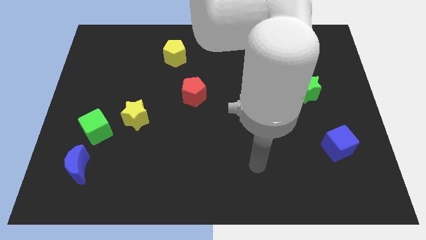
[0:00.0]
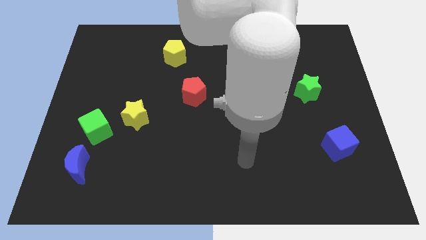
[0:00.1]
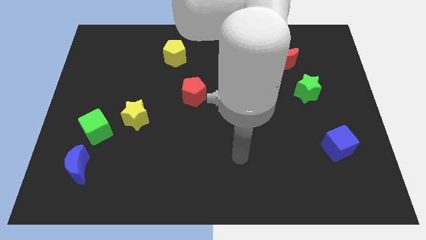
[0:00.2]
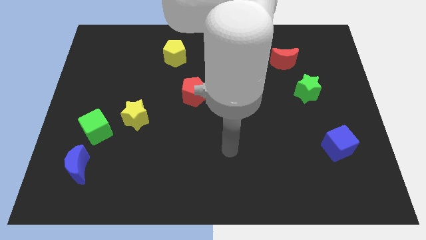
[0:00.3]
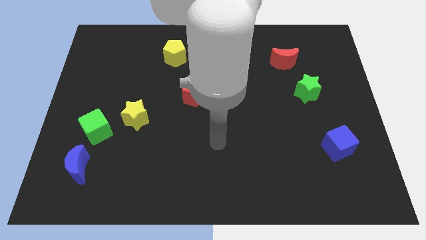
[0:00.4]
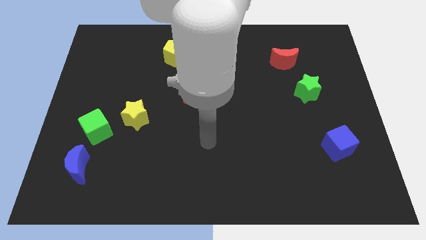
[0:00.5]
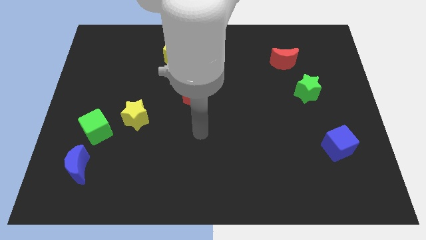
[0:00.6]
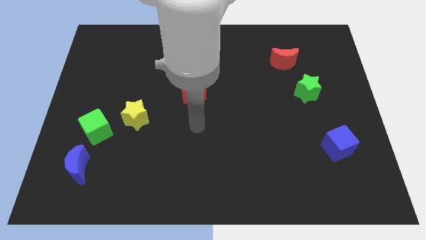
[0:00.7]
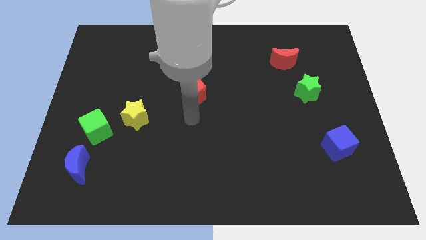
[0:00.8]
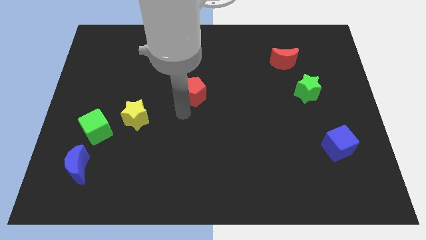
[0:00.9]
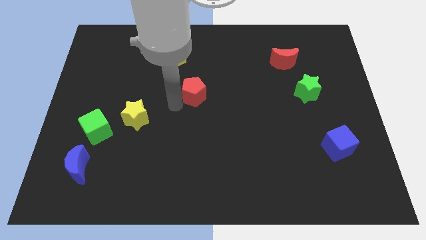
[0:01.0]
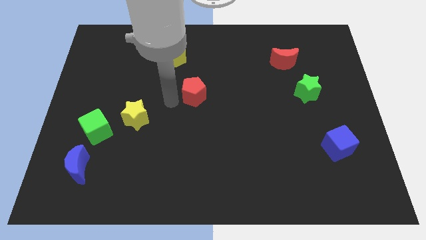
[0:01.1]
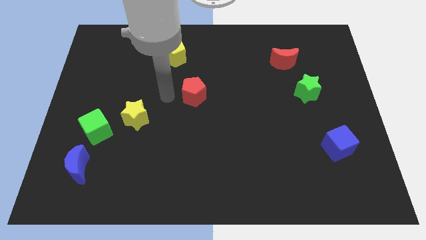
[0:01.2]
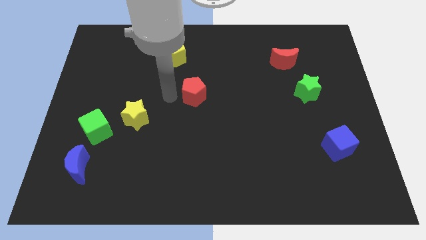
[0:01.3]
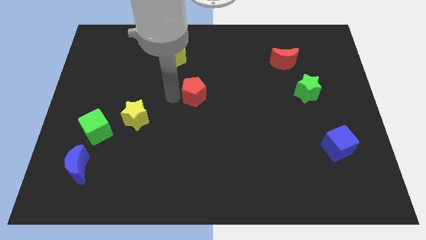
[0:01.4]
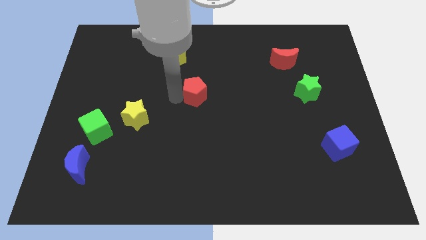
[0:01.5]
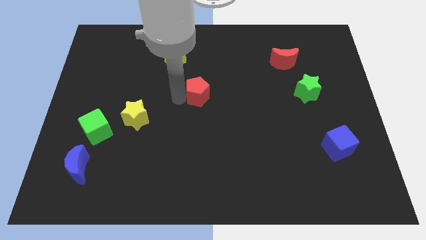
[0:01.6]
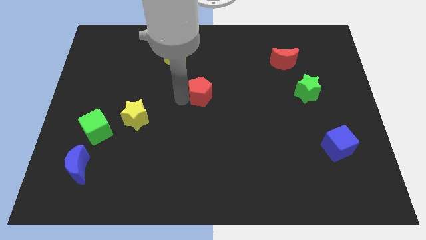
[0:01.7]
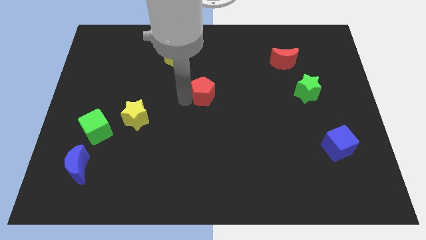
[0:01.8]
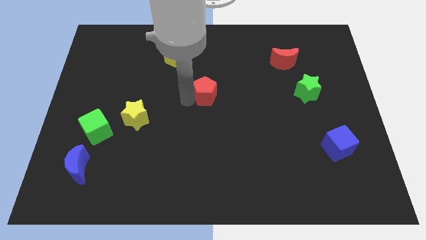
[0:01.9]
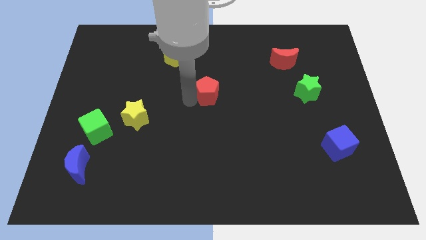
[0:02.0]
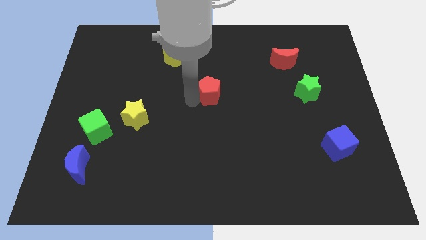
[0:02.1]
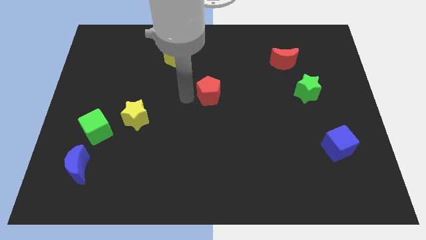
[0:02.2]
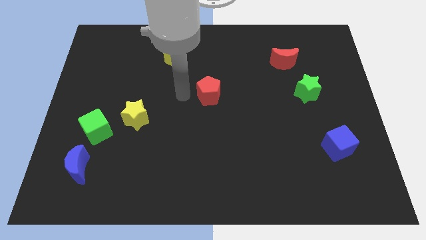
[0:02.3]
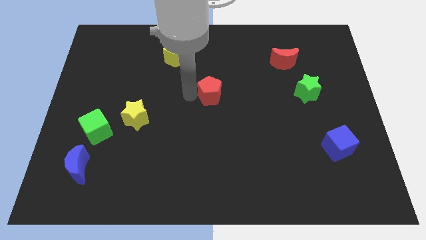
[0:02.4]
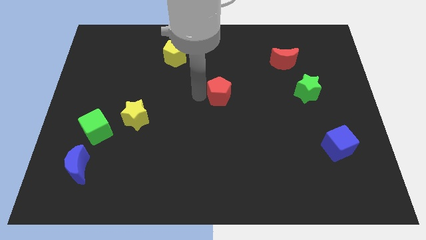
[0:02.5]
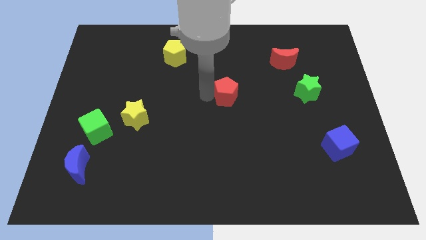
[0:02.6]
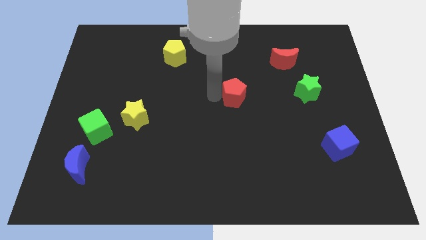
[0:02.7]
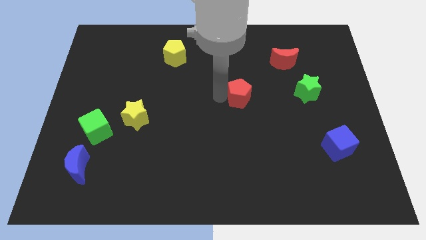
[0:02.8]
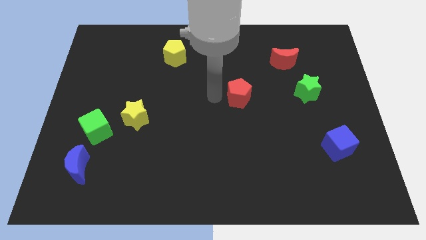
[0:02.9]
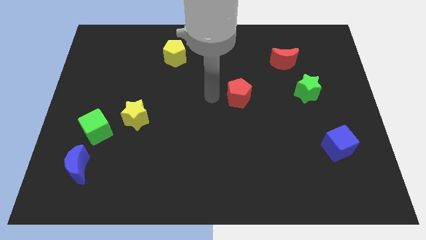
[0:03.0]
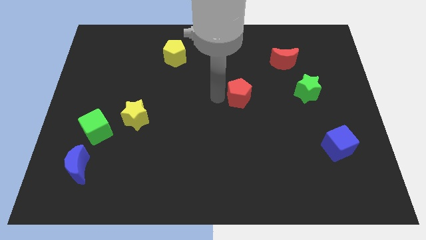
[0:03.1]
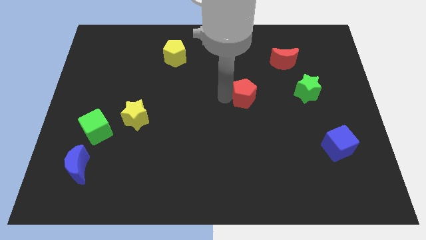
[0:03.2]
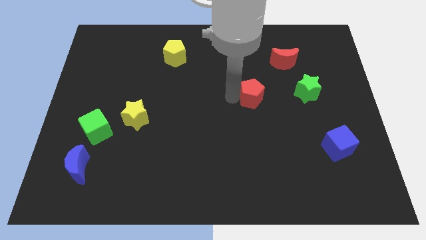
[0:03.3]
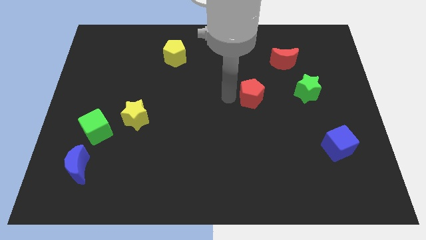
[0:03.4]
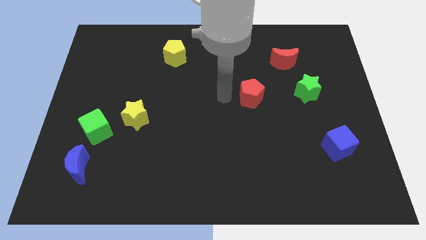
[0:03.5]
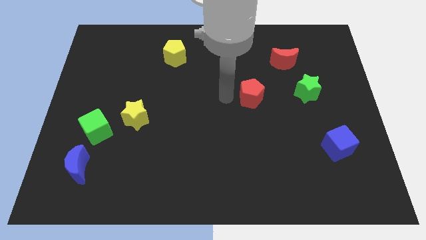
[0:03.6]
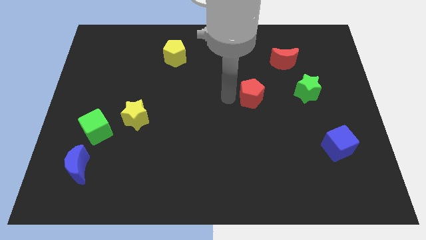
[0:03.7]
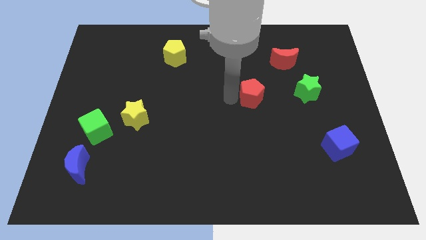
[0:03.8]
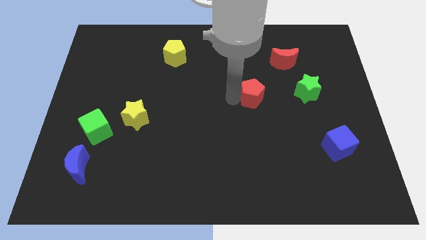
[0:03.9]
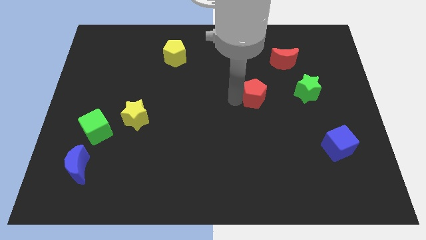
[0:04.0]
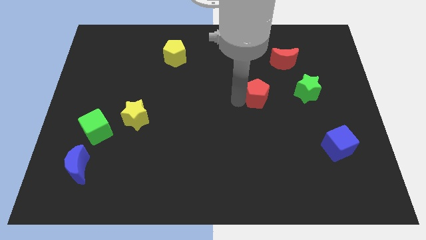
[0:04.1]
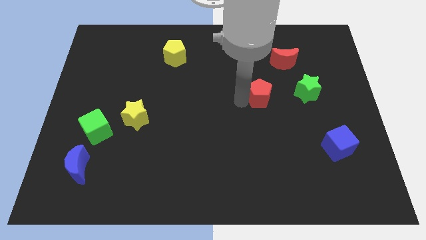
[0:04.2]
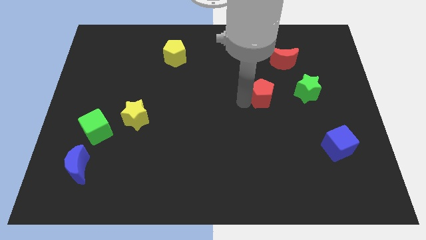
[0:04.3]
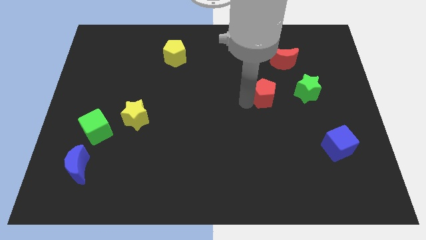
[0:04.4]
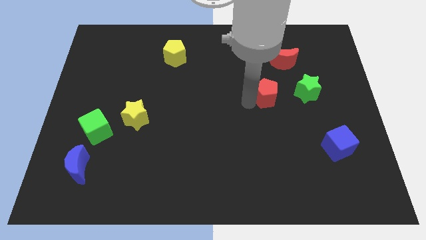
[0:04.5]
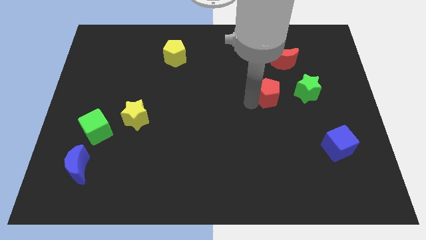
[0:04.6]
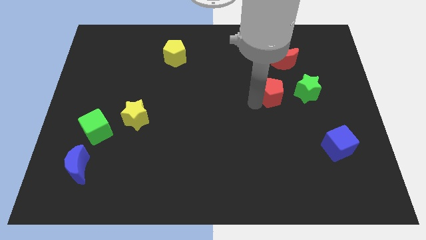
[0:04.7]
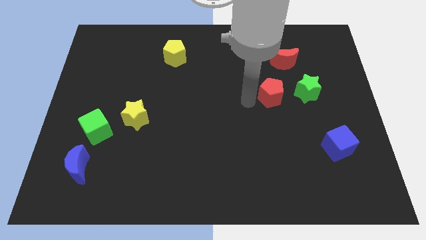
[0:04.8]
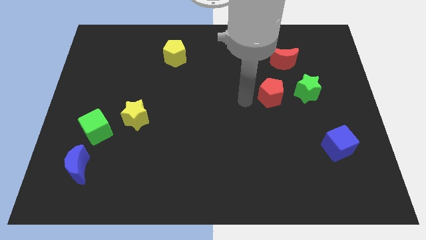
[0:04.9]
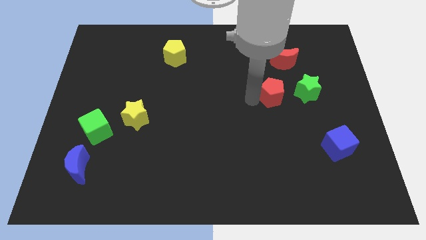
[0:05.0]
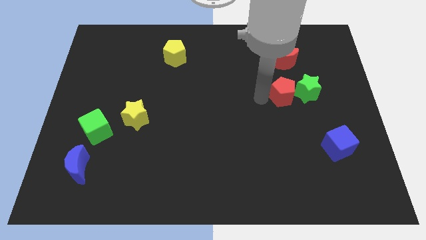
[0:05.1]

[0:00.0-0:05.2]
put the red pentagon close to the green star

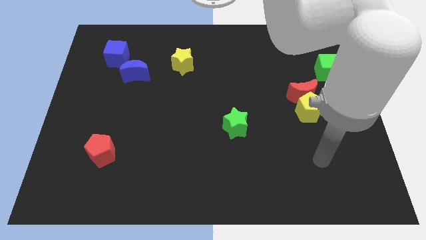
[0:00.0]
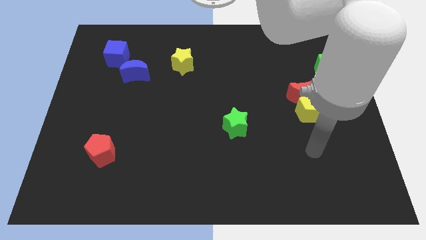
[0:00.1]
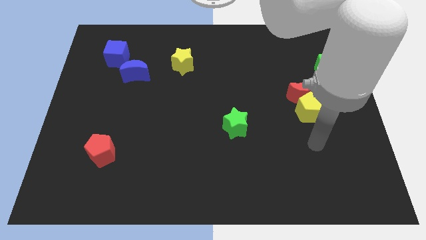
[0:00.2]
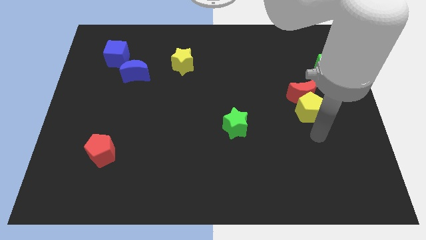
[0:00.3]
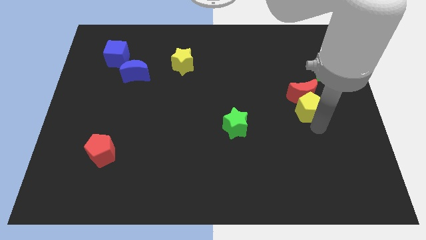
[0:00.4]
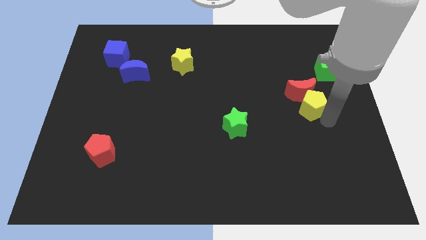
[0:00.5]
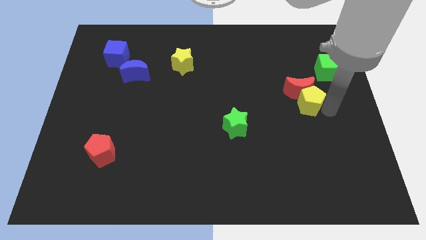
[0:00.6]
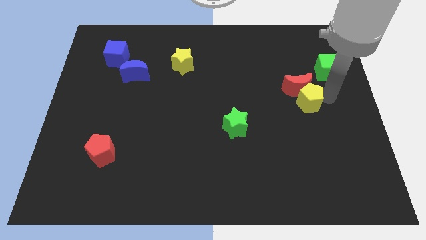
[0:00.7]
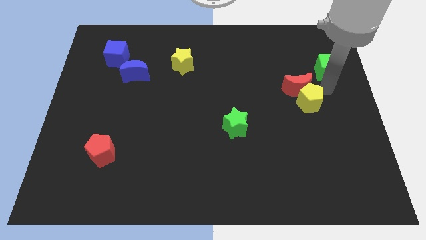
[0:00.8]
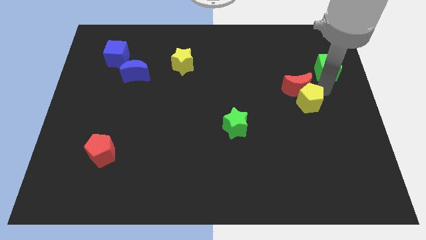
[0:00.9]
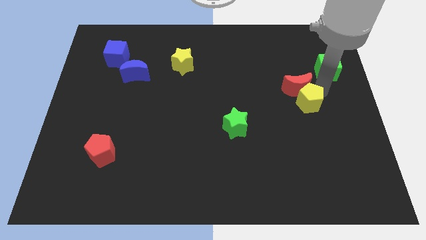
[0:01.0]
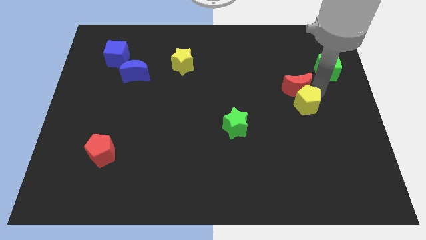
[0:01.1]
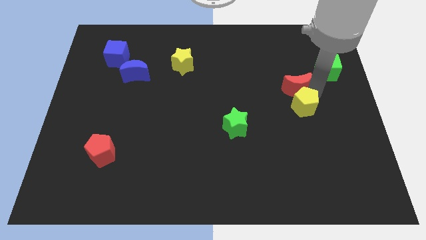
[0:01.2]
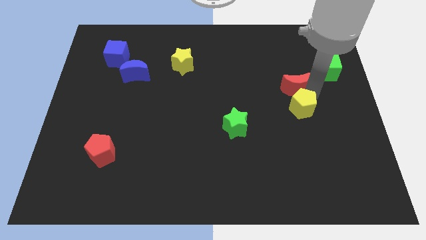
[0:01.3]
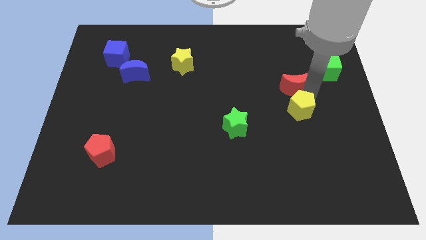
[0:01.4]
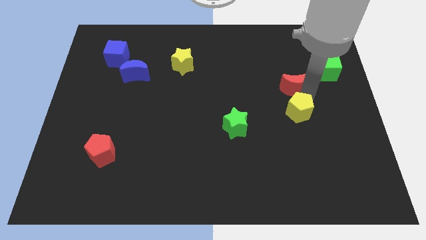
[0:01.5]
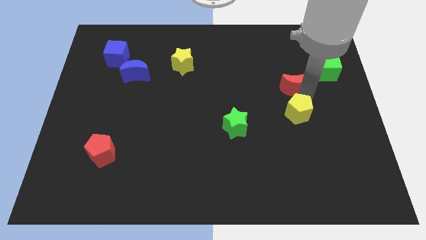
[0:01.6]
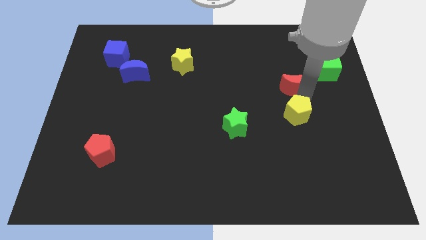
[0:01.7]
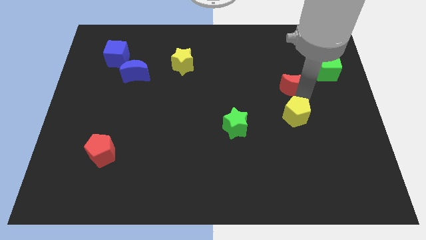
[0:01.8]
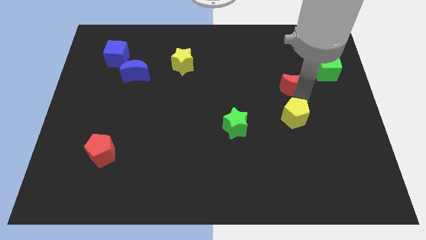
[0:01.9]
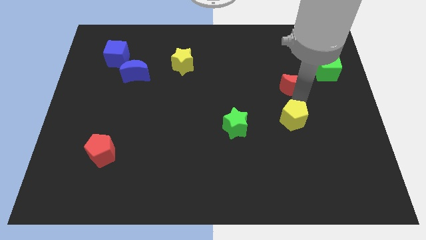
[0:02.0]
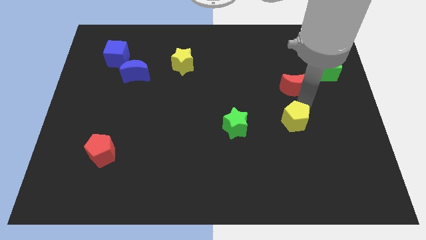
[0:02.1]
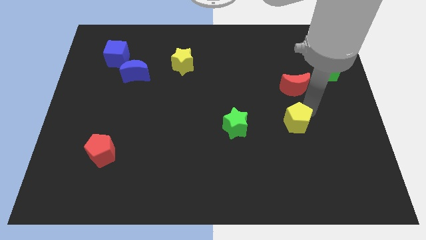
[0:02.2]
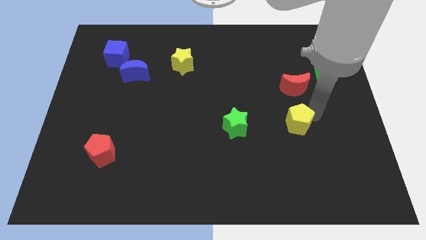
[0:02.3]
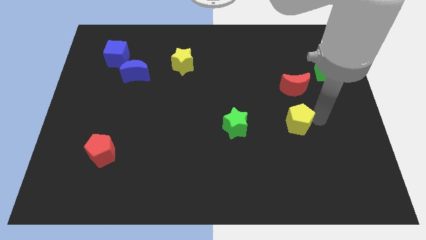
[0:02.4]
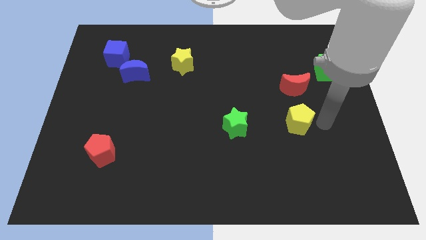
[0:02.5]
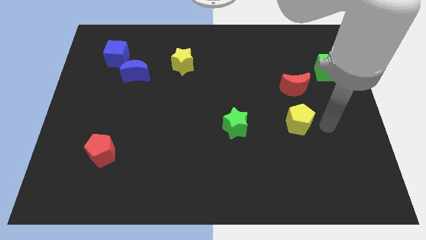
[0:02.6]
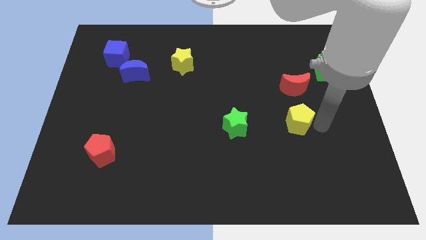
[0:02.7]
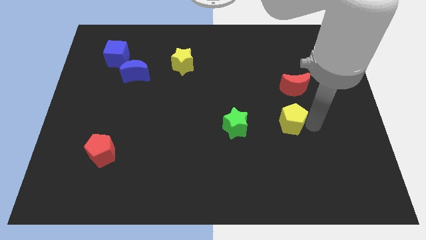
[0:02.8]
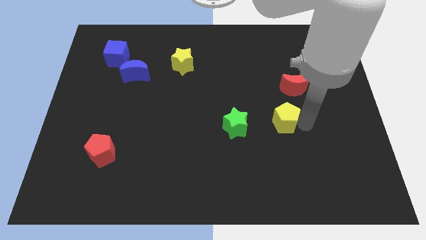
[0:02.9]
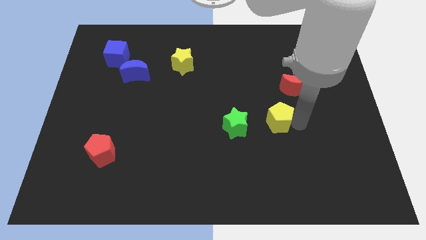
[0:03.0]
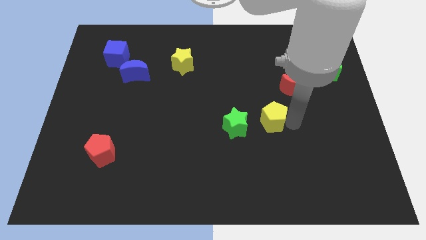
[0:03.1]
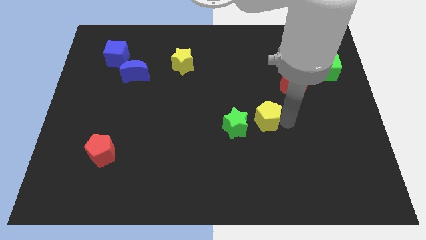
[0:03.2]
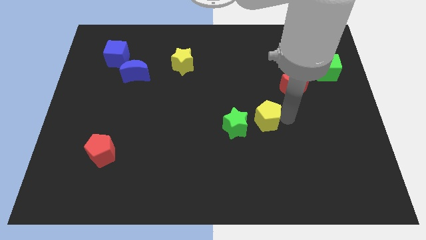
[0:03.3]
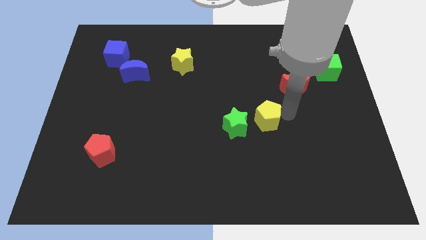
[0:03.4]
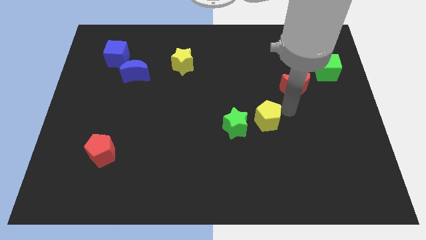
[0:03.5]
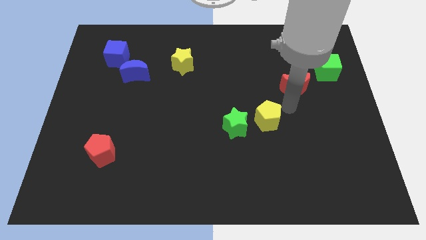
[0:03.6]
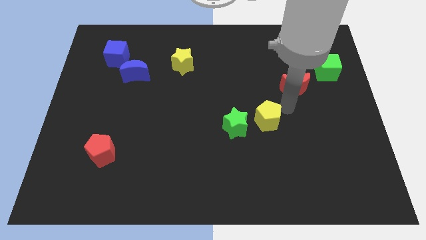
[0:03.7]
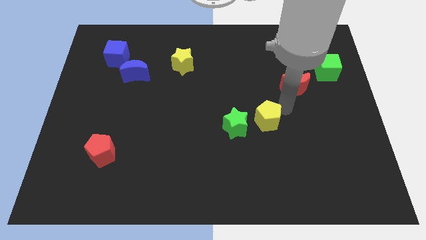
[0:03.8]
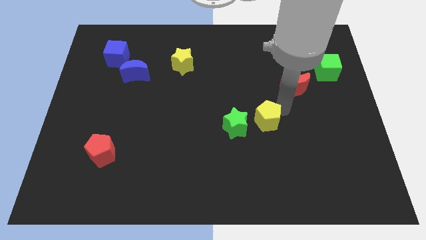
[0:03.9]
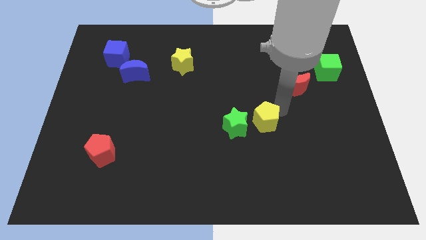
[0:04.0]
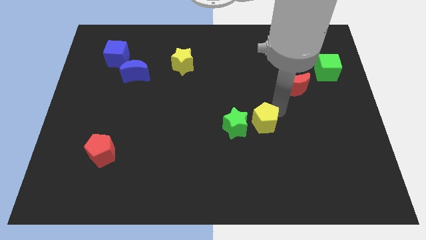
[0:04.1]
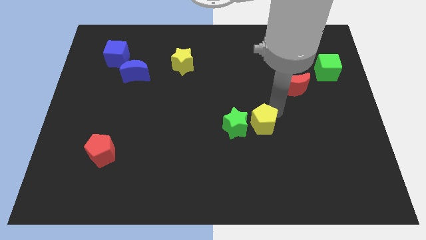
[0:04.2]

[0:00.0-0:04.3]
put the yellow pentagon close to the green star
